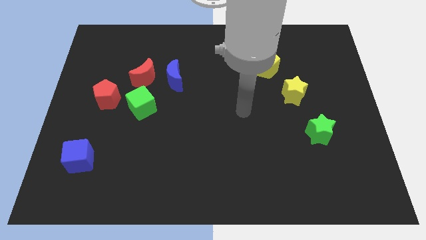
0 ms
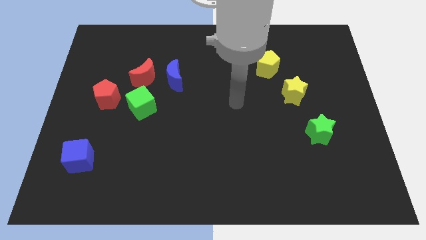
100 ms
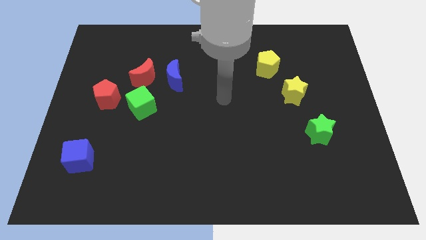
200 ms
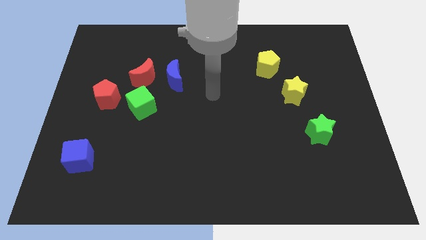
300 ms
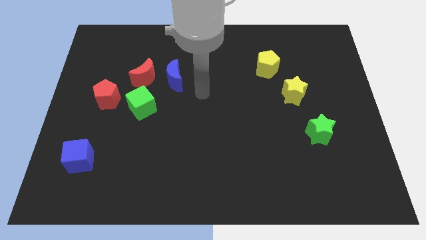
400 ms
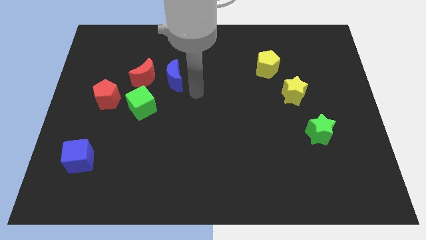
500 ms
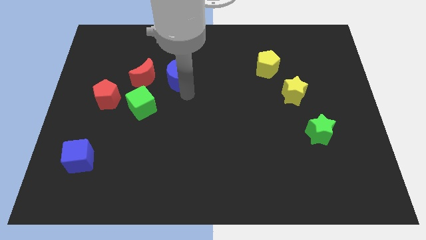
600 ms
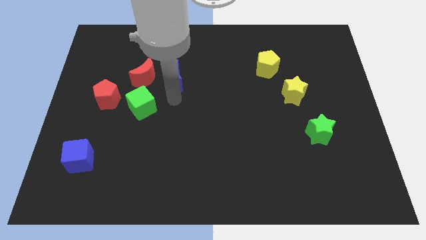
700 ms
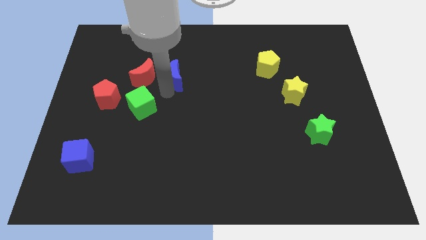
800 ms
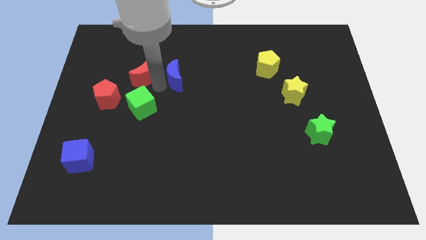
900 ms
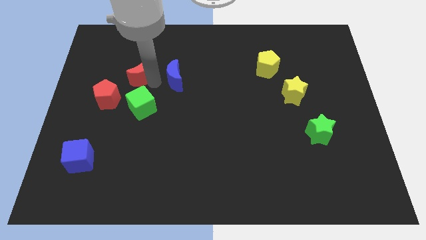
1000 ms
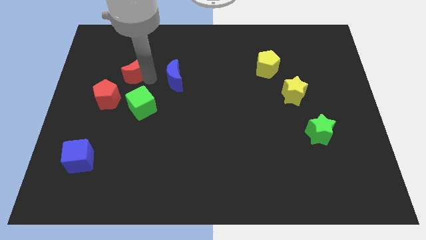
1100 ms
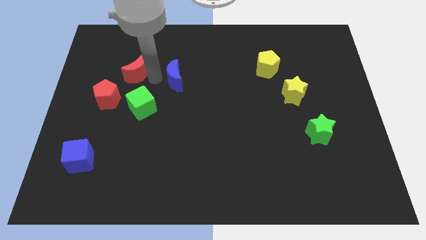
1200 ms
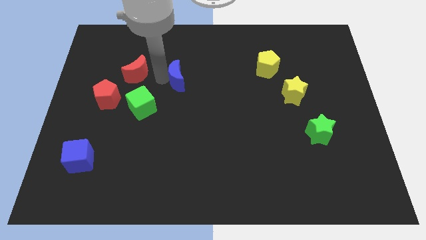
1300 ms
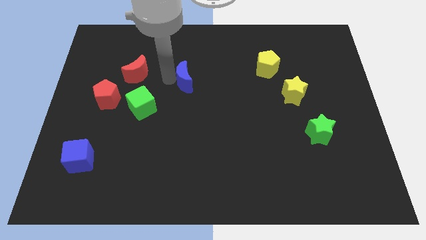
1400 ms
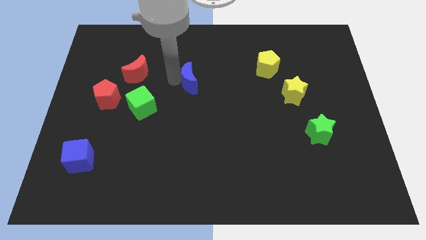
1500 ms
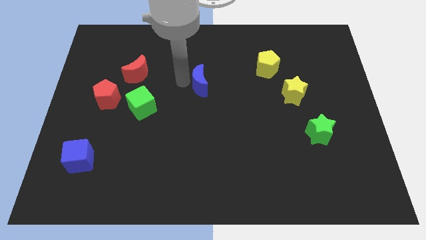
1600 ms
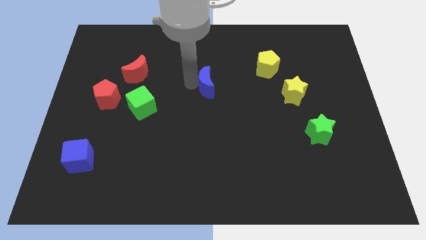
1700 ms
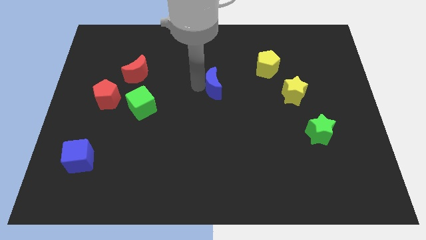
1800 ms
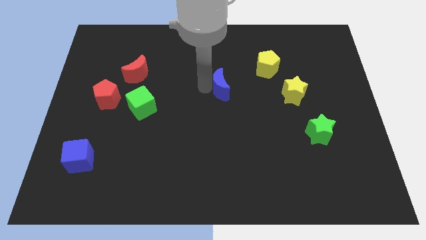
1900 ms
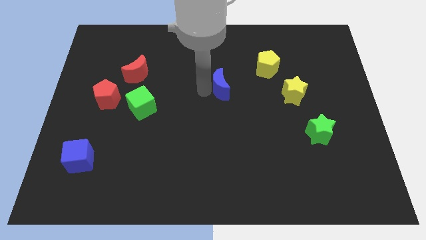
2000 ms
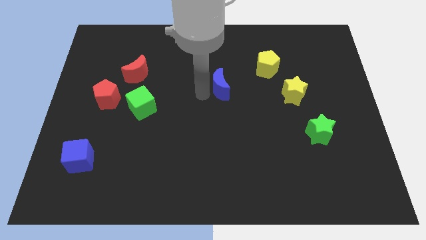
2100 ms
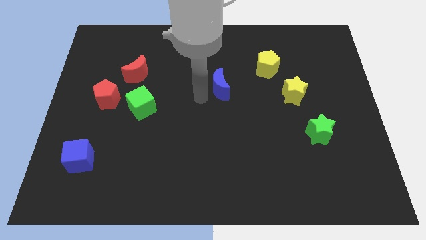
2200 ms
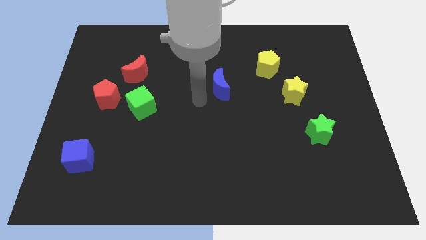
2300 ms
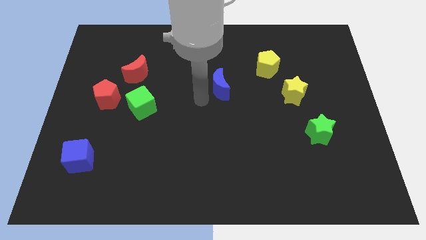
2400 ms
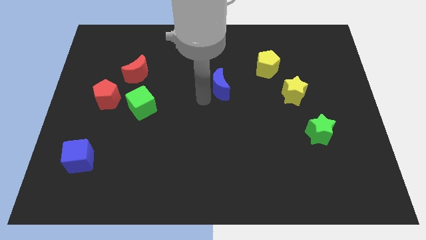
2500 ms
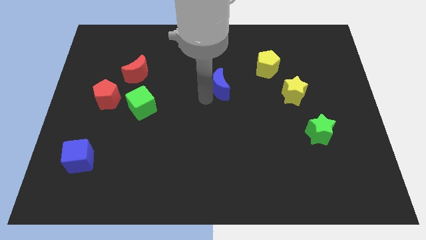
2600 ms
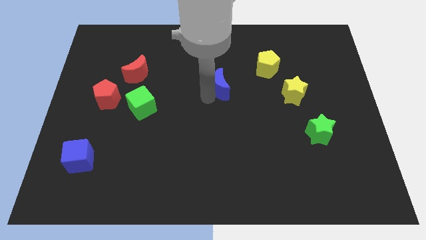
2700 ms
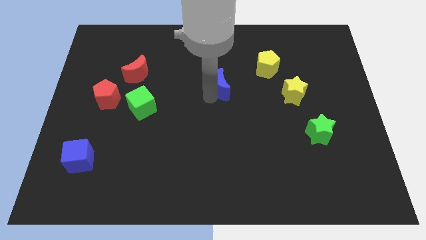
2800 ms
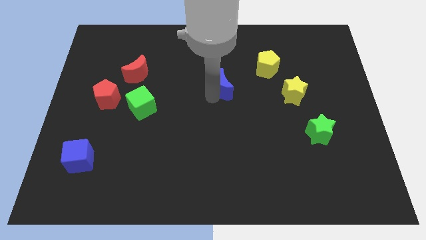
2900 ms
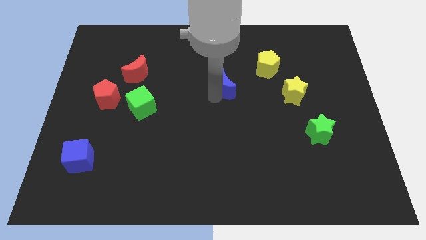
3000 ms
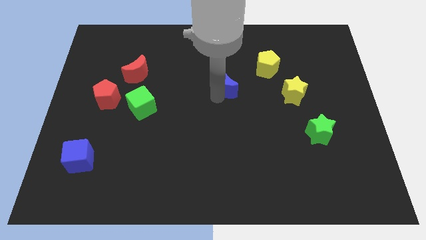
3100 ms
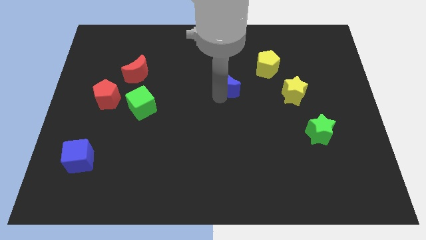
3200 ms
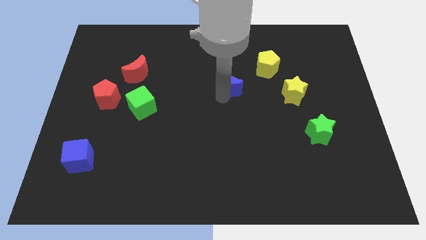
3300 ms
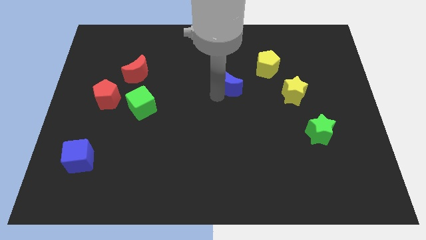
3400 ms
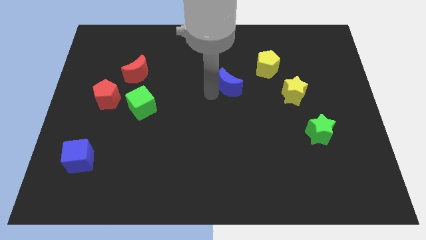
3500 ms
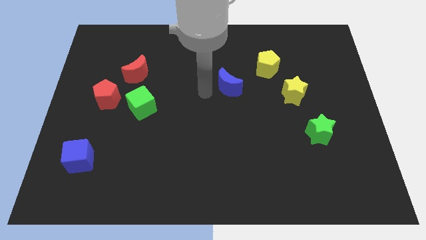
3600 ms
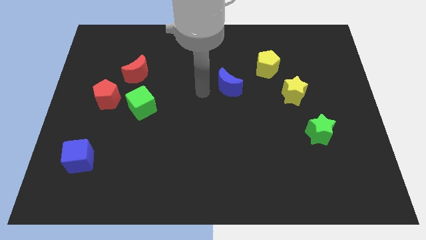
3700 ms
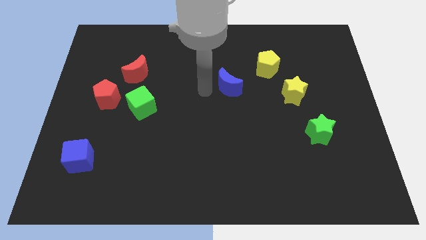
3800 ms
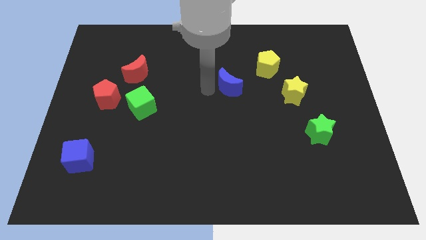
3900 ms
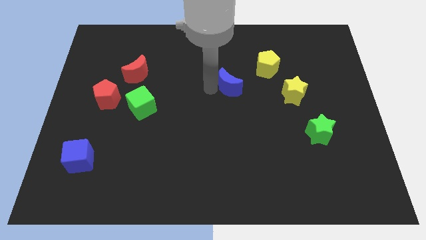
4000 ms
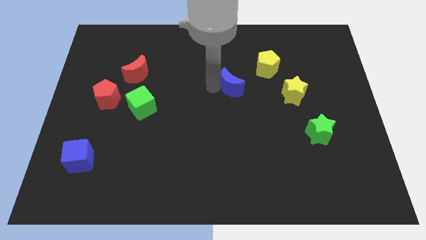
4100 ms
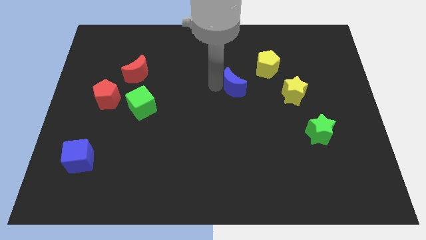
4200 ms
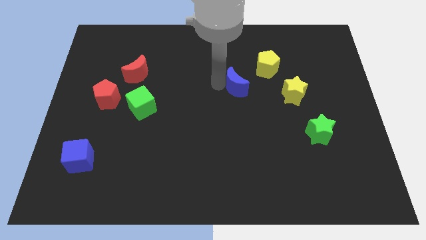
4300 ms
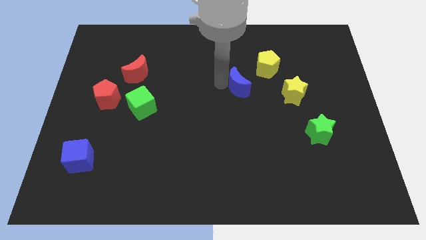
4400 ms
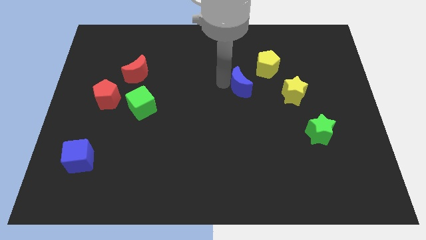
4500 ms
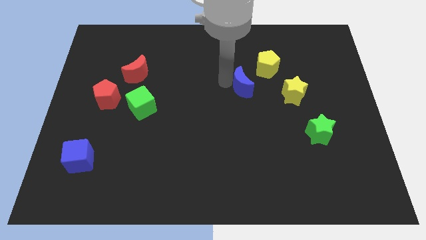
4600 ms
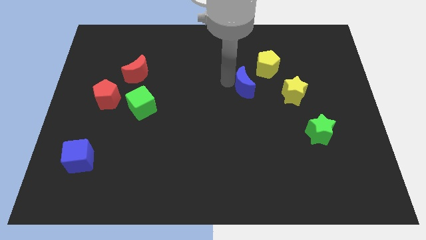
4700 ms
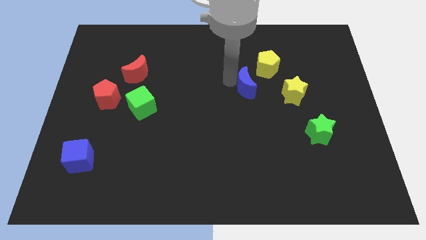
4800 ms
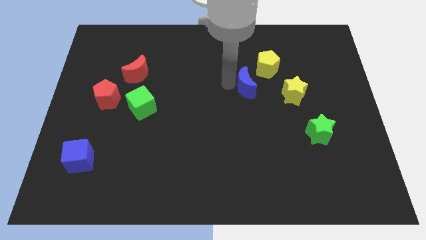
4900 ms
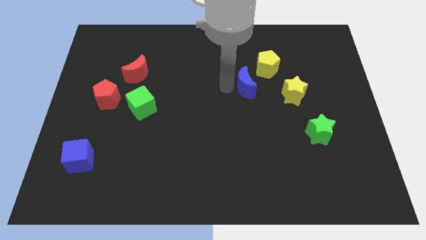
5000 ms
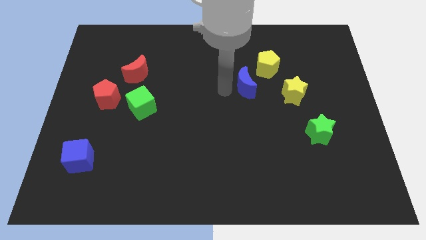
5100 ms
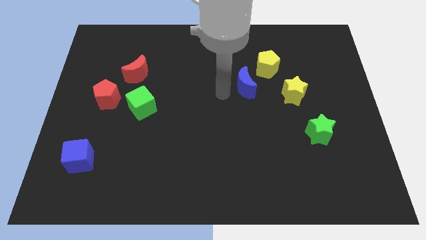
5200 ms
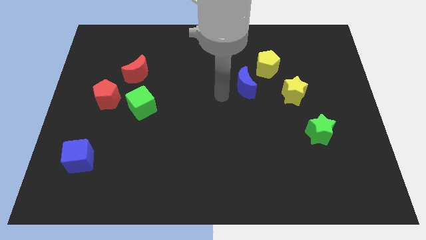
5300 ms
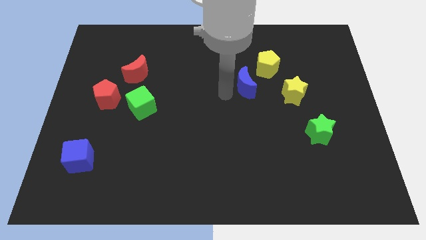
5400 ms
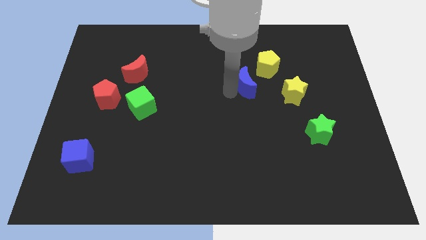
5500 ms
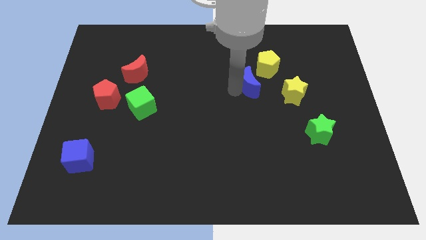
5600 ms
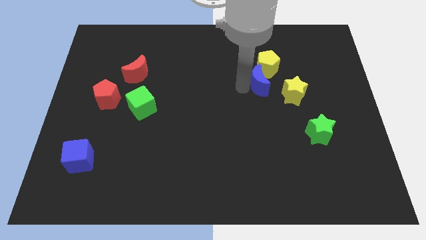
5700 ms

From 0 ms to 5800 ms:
push the blue moon to the right

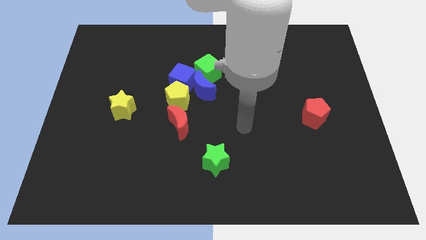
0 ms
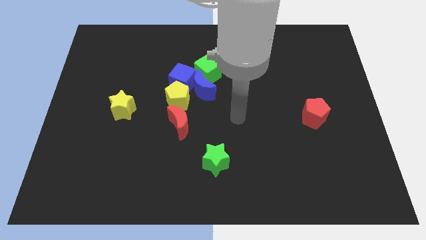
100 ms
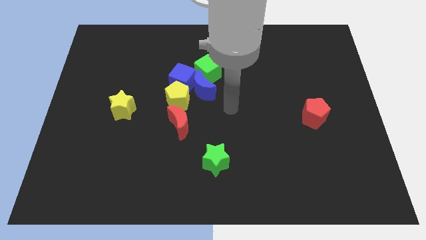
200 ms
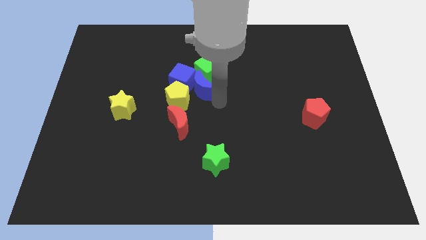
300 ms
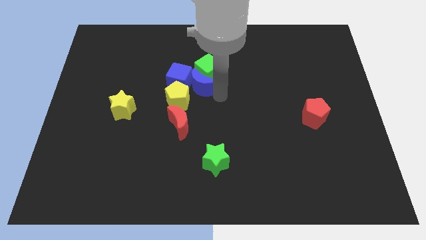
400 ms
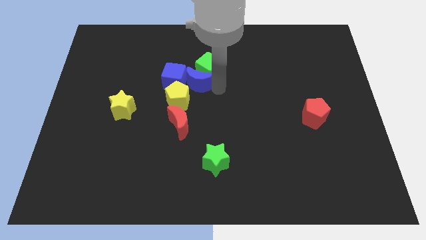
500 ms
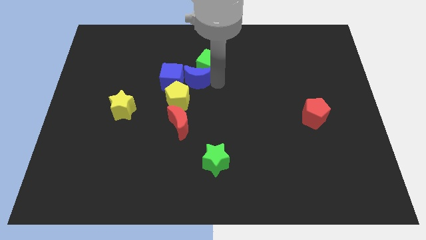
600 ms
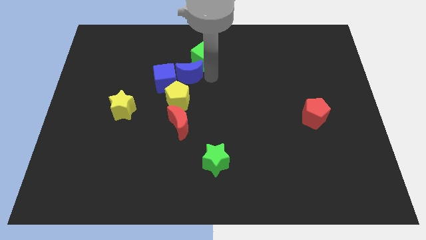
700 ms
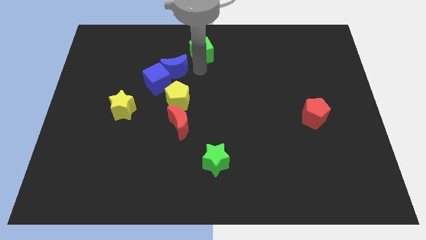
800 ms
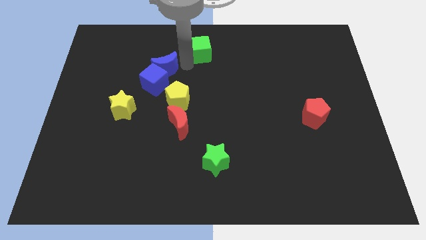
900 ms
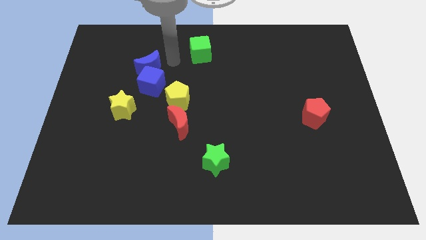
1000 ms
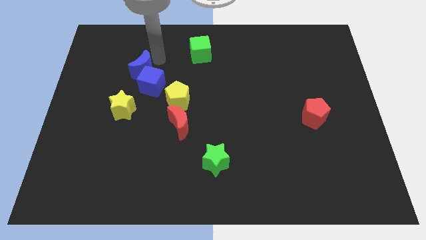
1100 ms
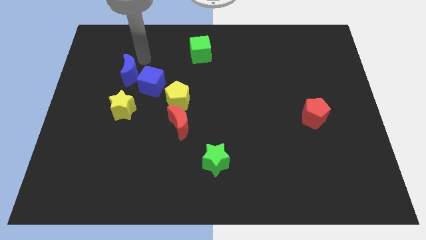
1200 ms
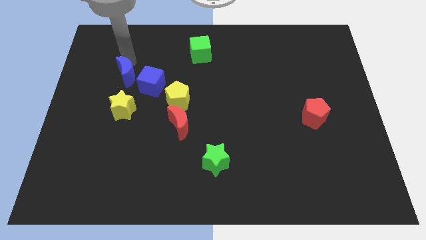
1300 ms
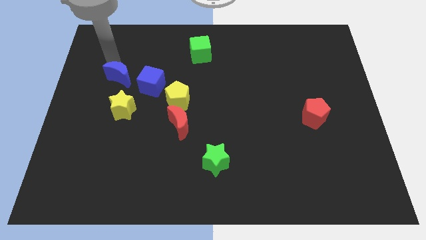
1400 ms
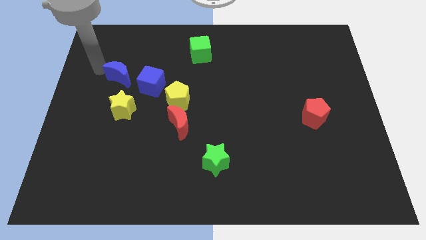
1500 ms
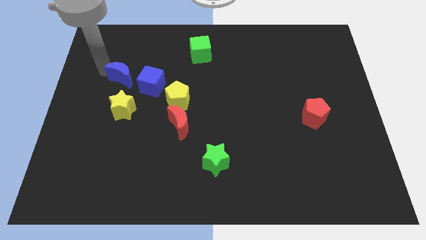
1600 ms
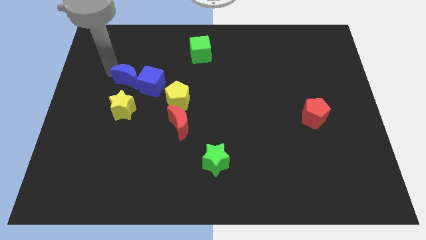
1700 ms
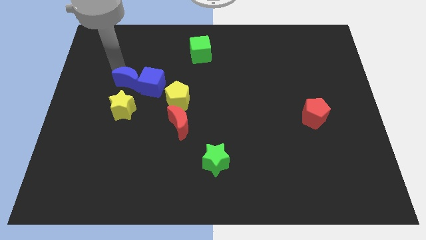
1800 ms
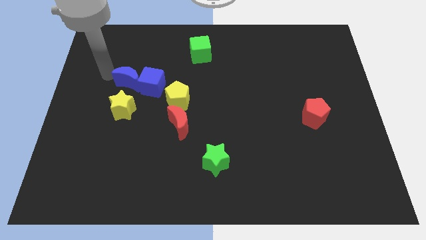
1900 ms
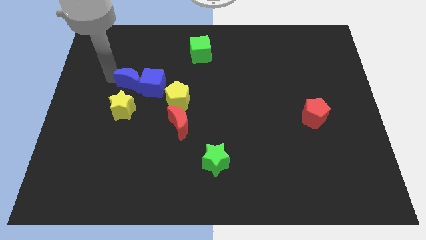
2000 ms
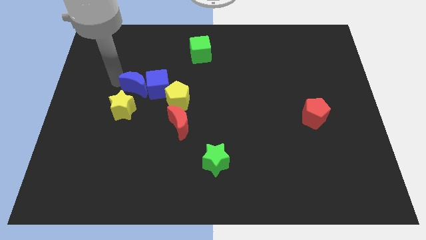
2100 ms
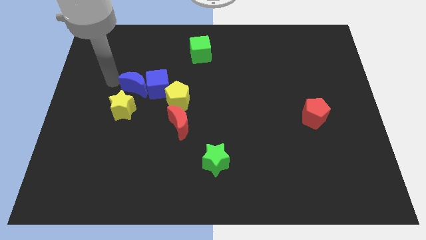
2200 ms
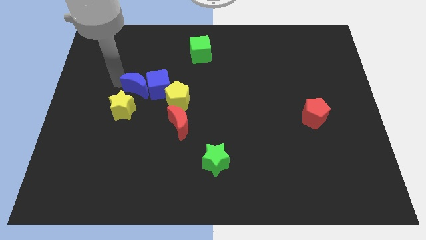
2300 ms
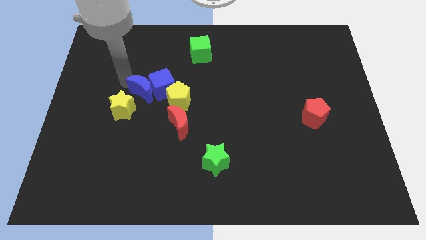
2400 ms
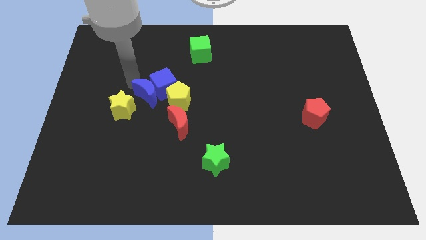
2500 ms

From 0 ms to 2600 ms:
move the blue moon down and left slightly
